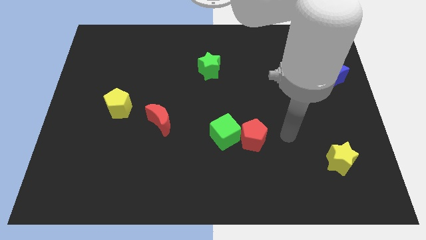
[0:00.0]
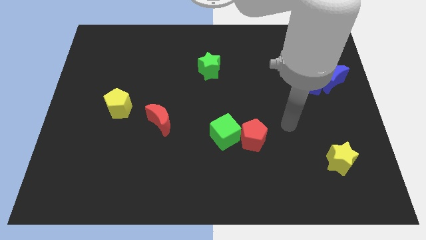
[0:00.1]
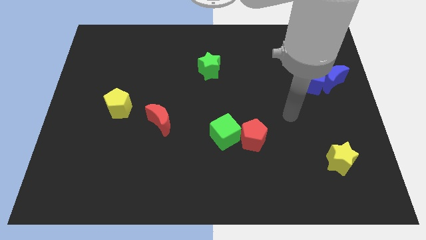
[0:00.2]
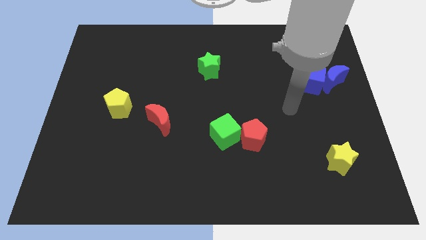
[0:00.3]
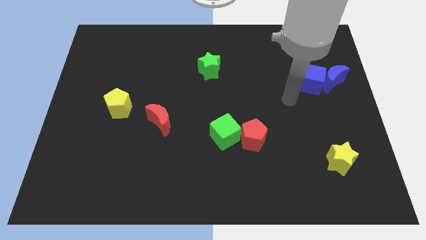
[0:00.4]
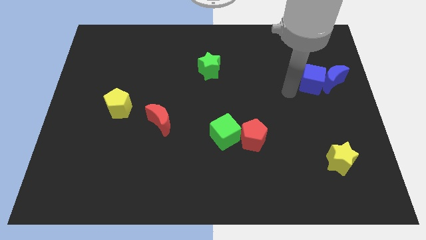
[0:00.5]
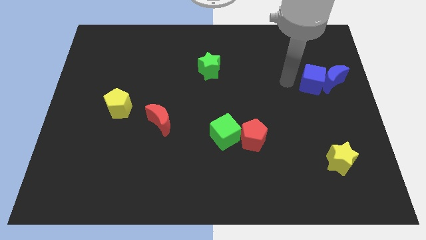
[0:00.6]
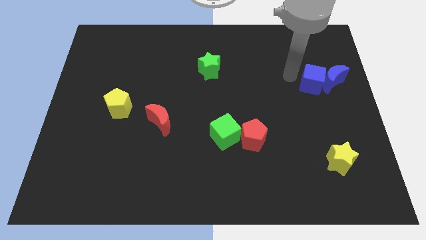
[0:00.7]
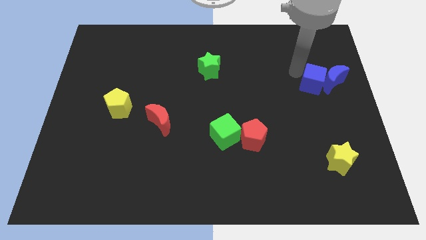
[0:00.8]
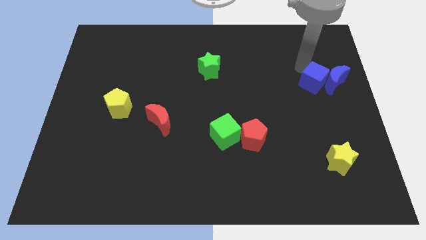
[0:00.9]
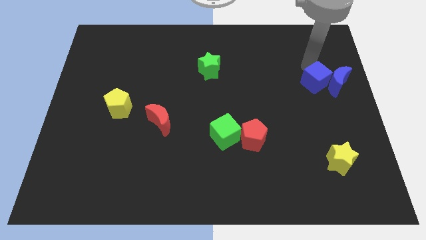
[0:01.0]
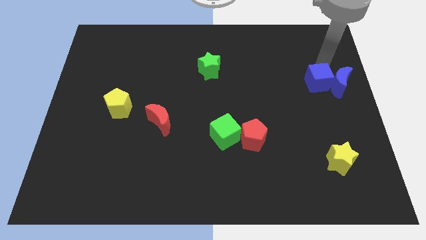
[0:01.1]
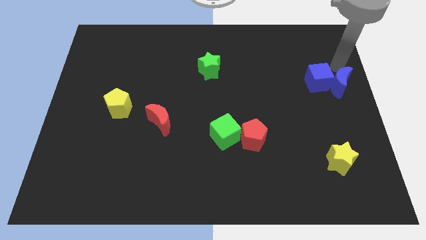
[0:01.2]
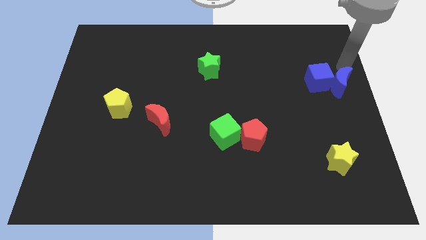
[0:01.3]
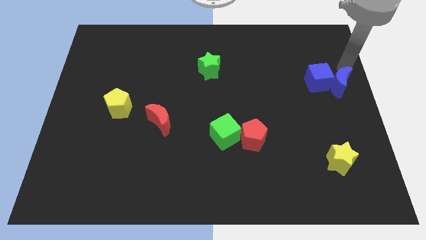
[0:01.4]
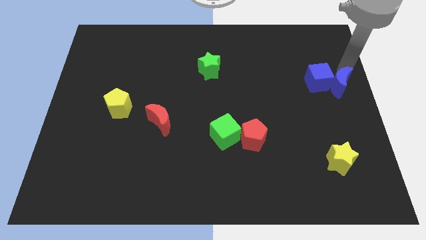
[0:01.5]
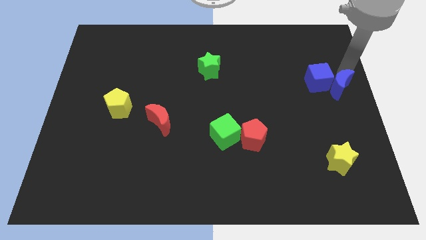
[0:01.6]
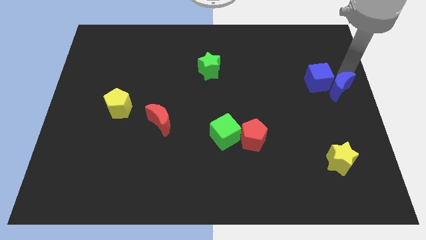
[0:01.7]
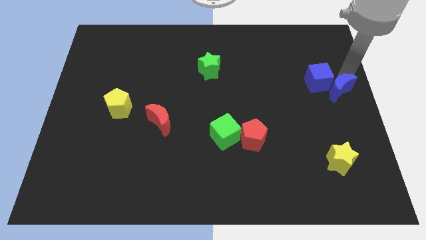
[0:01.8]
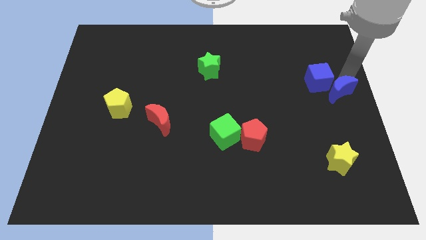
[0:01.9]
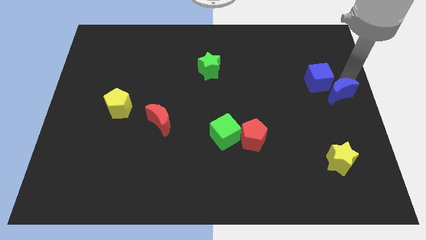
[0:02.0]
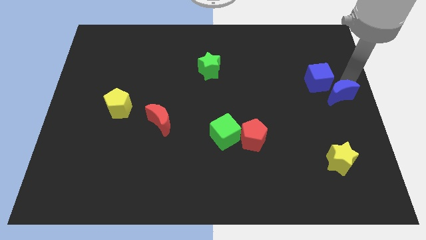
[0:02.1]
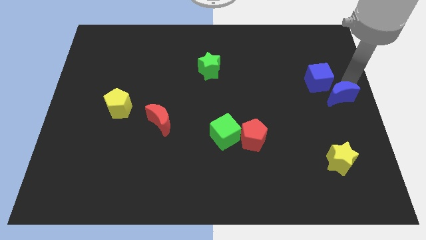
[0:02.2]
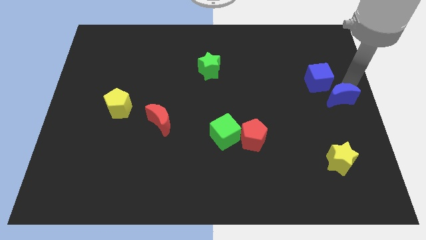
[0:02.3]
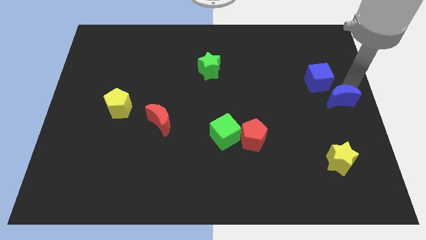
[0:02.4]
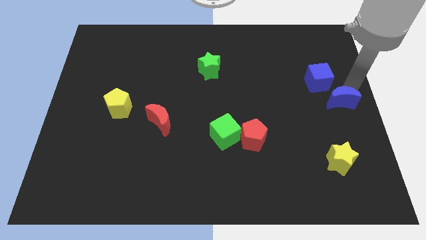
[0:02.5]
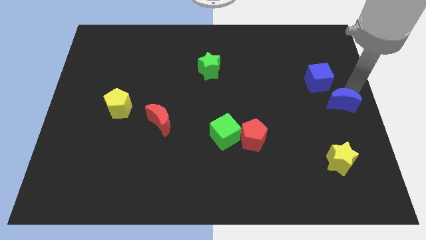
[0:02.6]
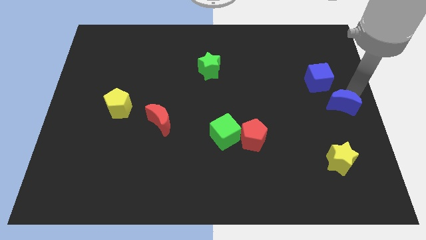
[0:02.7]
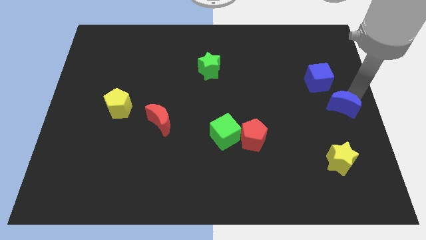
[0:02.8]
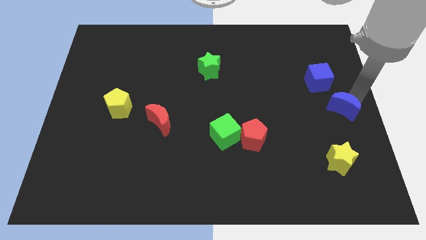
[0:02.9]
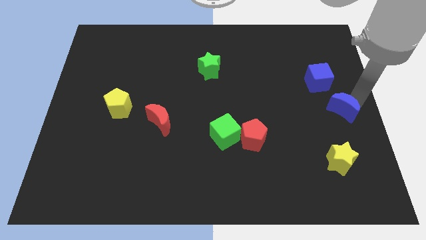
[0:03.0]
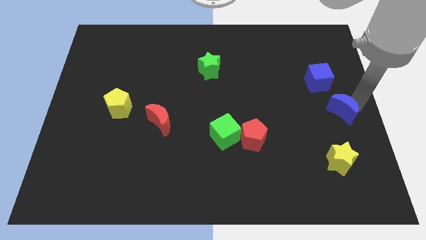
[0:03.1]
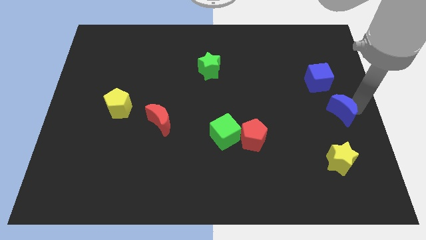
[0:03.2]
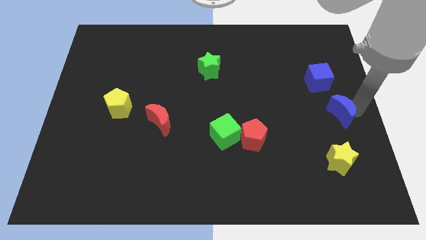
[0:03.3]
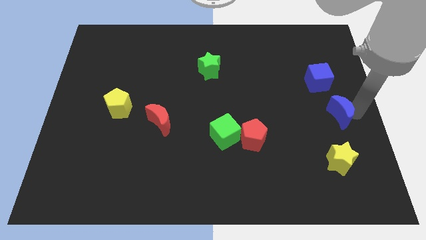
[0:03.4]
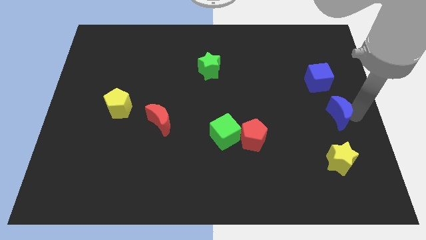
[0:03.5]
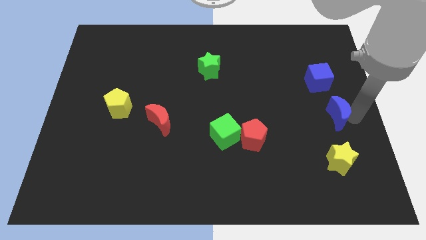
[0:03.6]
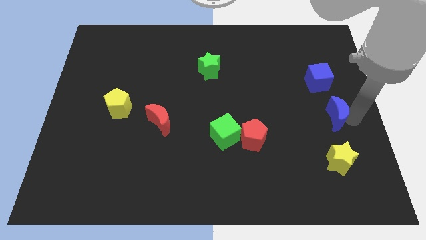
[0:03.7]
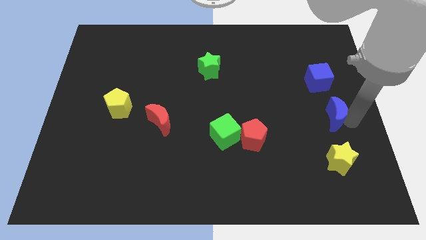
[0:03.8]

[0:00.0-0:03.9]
push the blue moon a little bit down and left diagonally

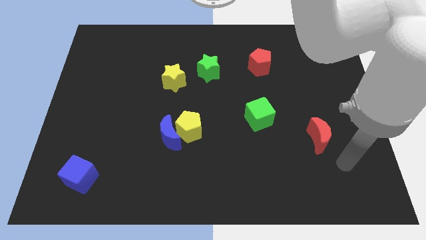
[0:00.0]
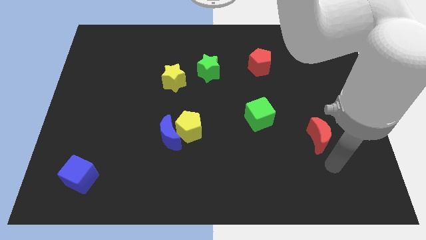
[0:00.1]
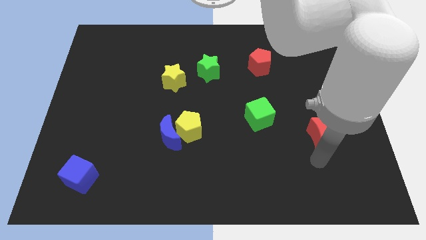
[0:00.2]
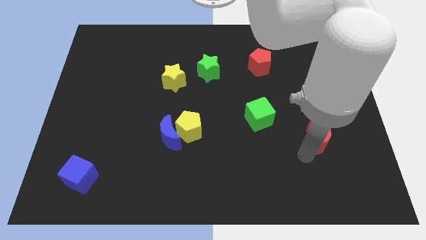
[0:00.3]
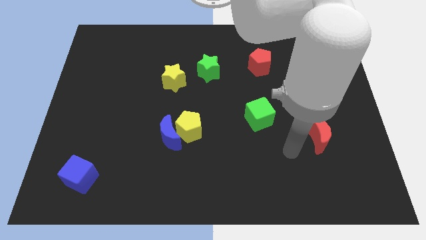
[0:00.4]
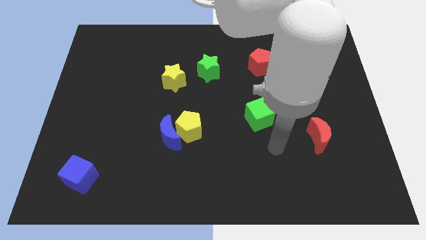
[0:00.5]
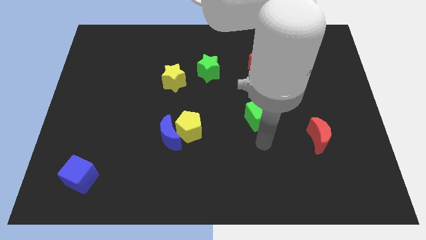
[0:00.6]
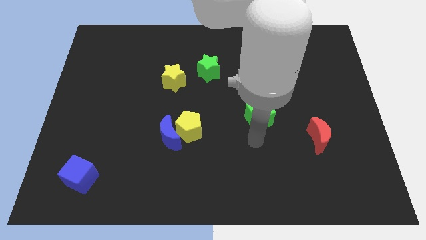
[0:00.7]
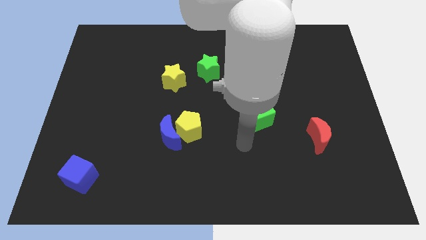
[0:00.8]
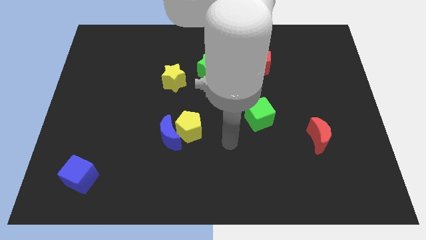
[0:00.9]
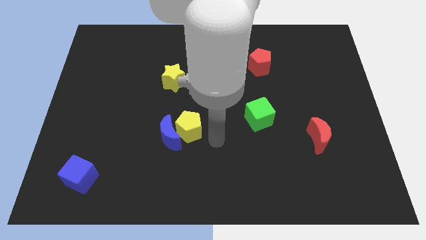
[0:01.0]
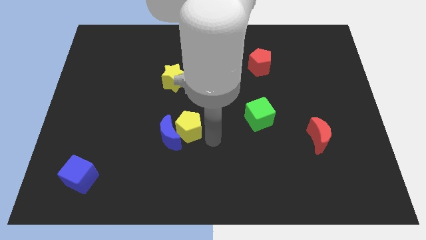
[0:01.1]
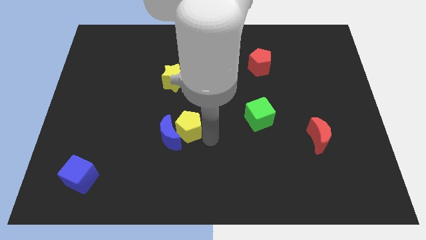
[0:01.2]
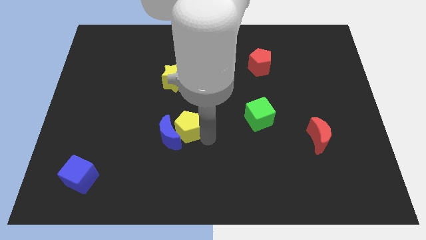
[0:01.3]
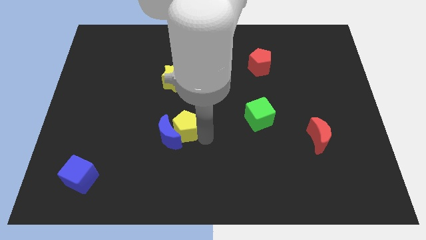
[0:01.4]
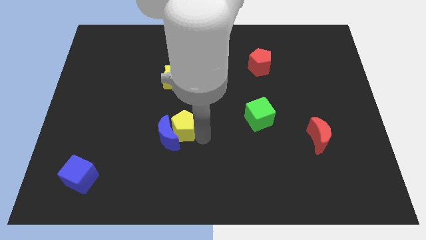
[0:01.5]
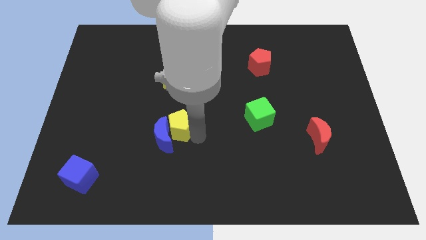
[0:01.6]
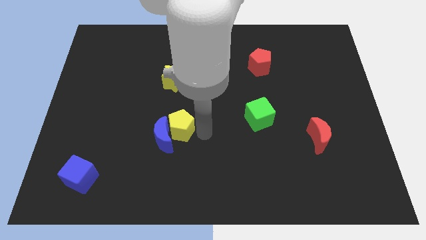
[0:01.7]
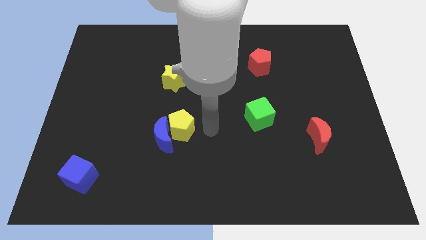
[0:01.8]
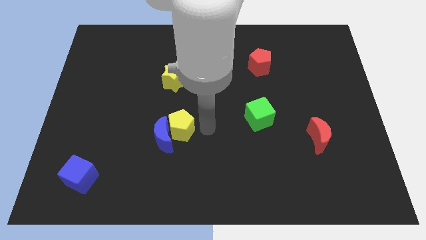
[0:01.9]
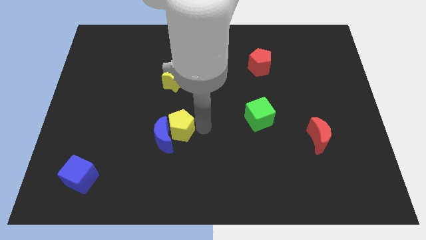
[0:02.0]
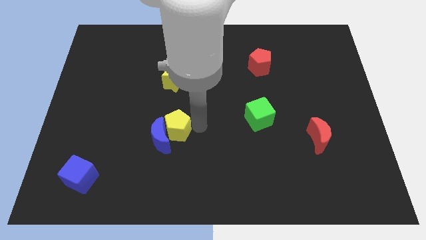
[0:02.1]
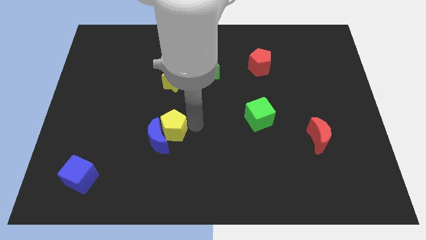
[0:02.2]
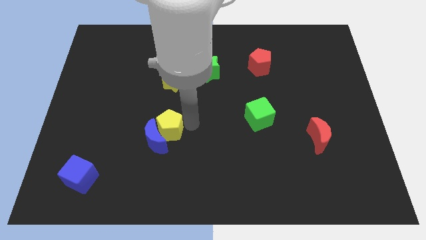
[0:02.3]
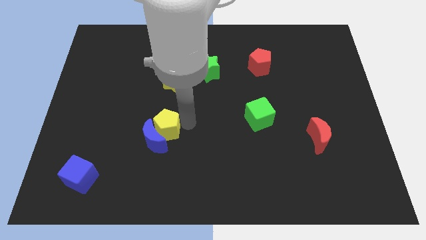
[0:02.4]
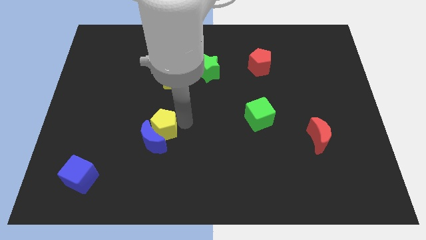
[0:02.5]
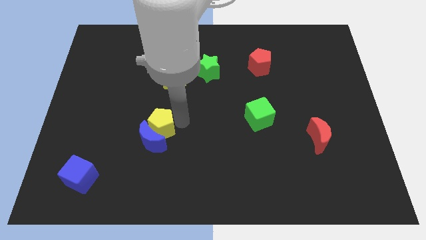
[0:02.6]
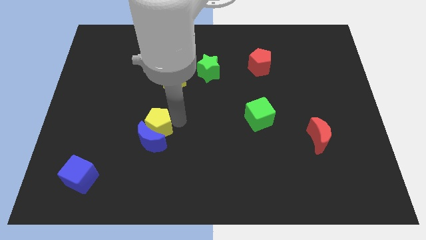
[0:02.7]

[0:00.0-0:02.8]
push the yellow pentagon somewhat to the left

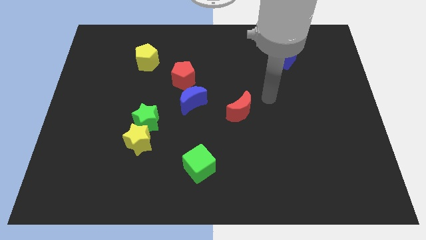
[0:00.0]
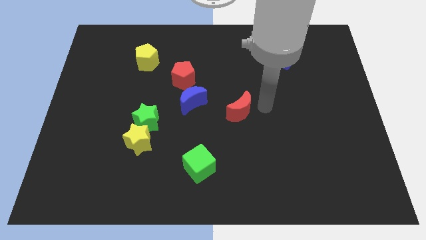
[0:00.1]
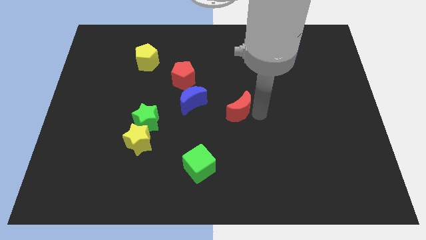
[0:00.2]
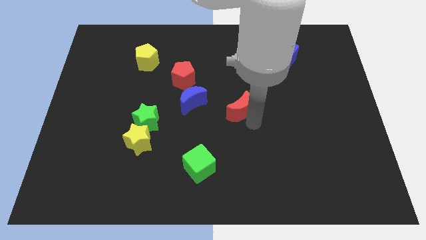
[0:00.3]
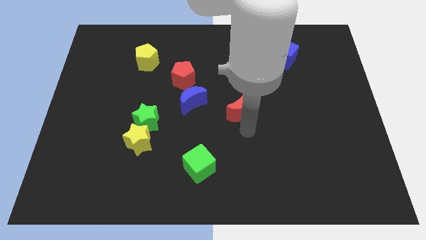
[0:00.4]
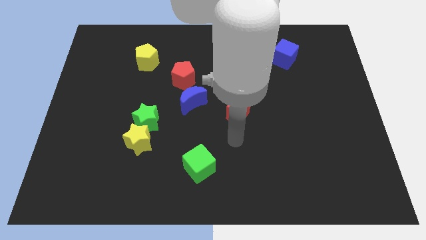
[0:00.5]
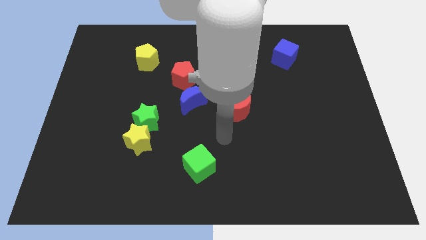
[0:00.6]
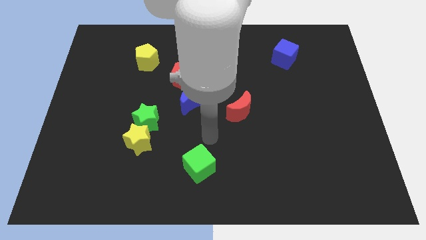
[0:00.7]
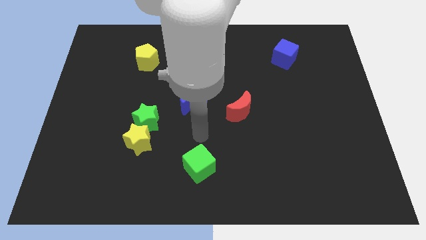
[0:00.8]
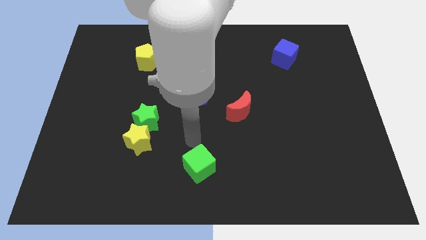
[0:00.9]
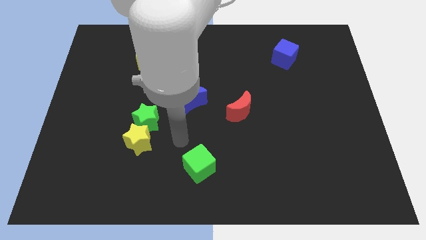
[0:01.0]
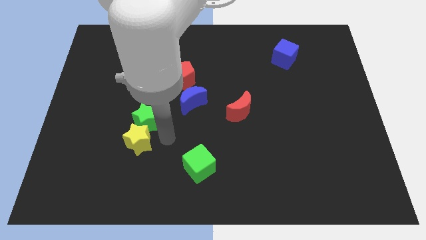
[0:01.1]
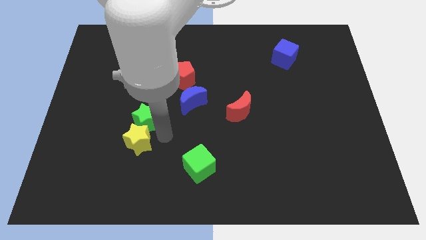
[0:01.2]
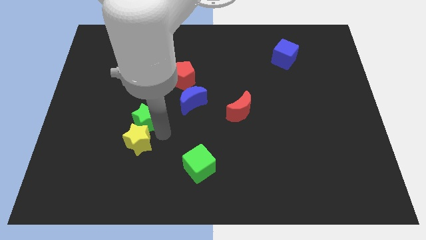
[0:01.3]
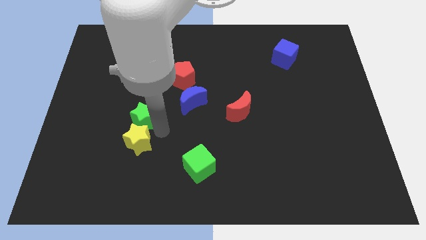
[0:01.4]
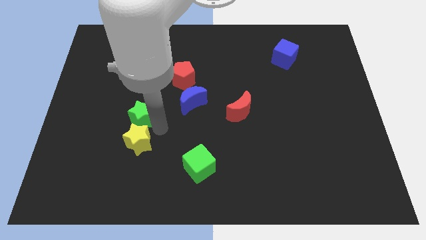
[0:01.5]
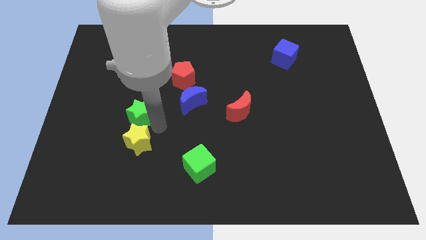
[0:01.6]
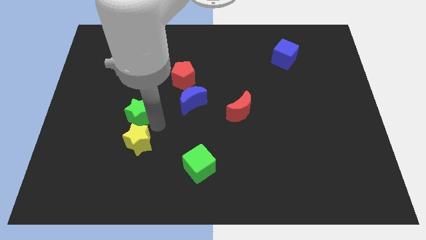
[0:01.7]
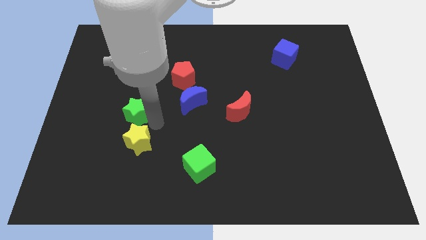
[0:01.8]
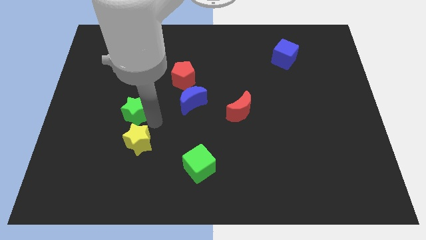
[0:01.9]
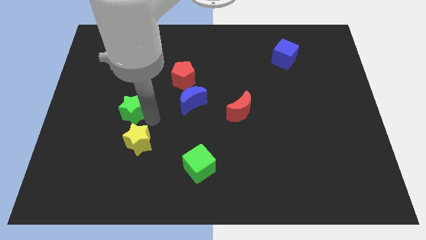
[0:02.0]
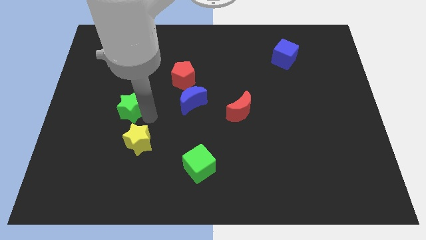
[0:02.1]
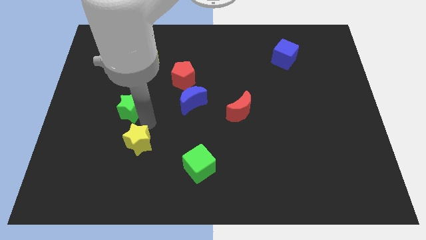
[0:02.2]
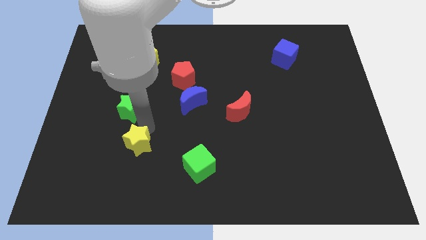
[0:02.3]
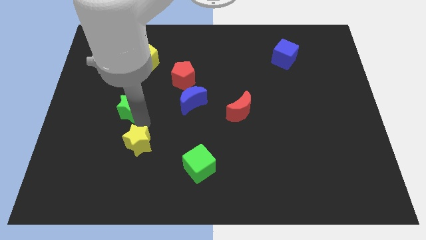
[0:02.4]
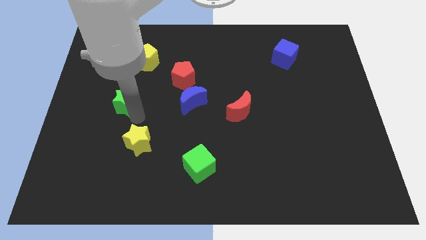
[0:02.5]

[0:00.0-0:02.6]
slide the green star upwards and then left somewhat
